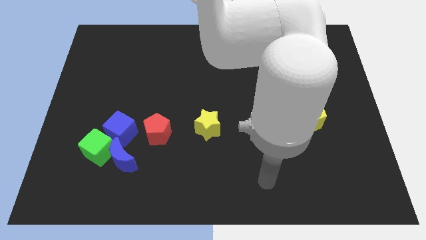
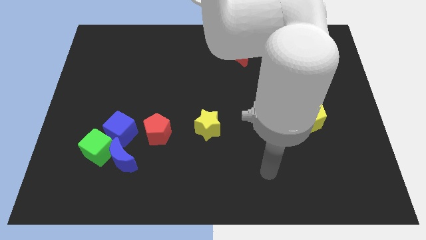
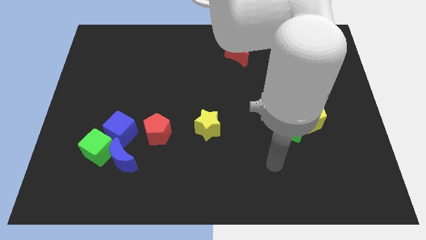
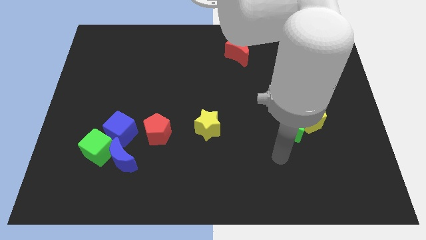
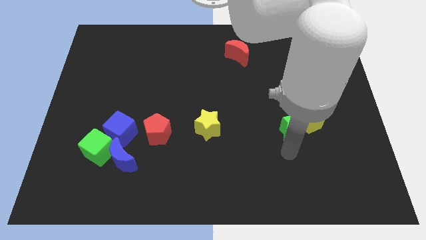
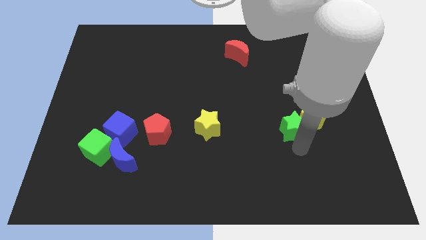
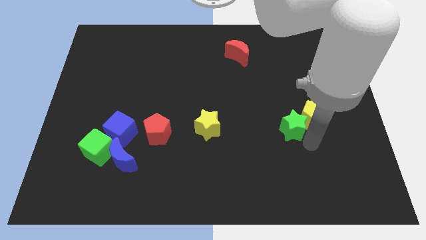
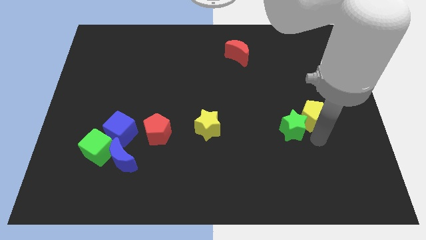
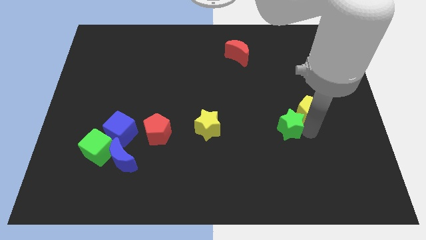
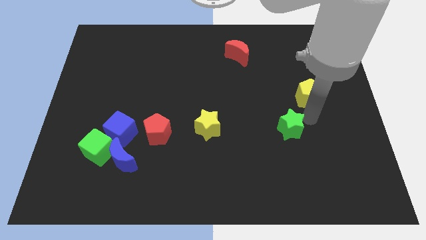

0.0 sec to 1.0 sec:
move the green star away from the yellow pentagon

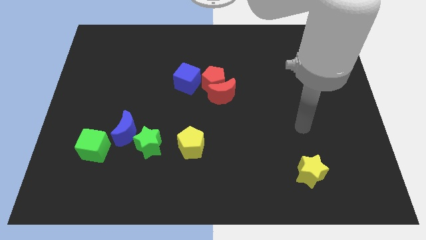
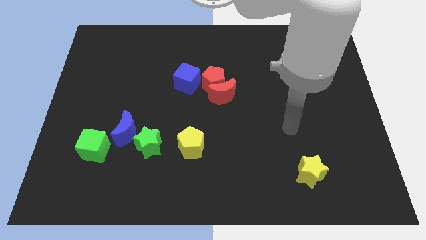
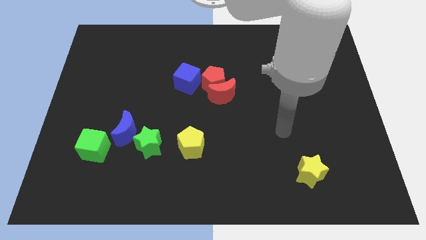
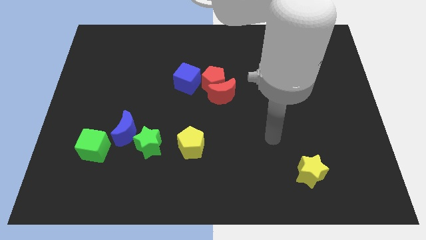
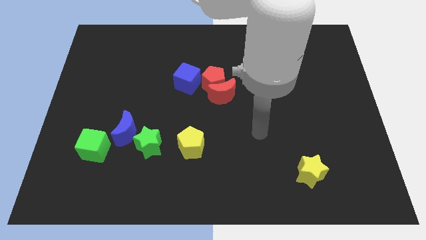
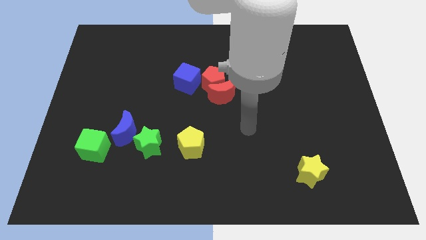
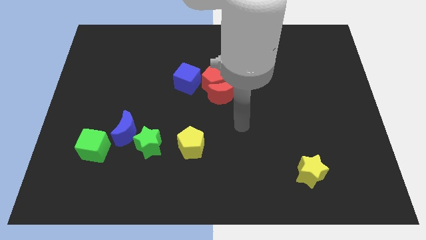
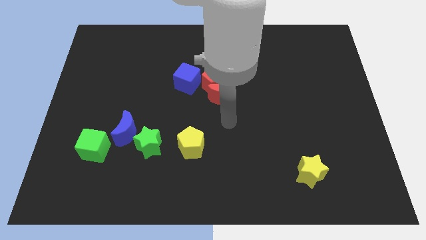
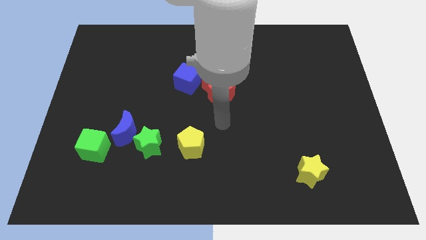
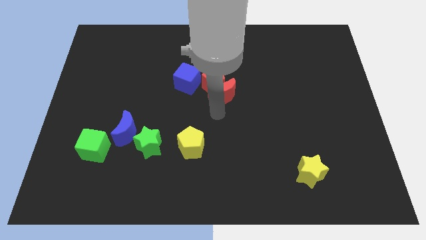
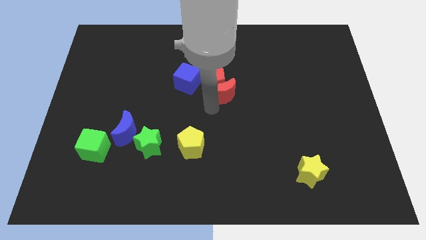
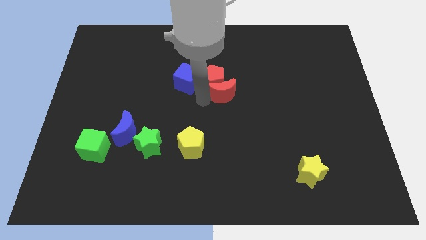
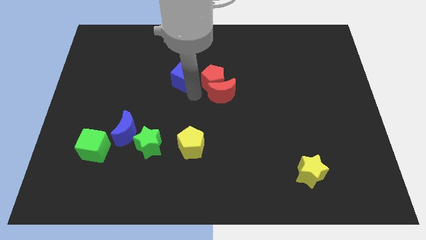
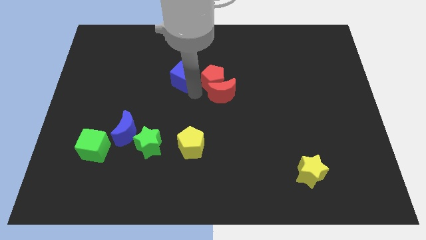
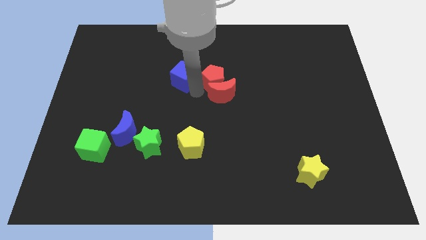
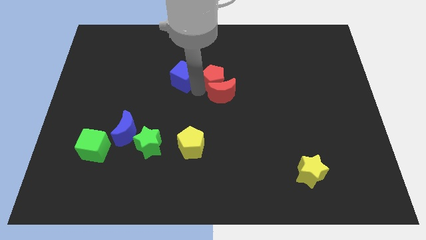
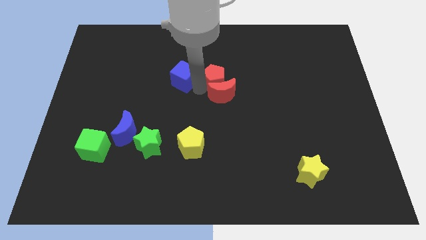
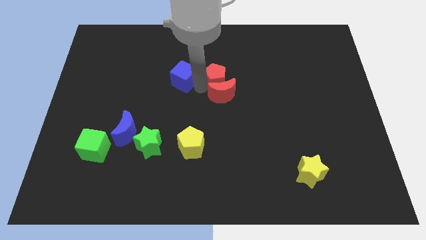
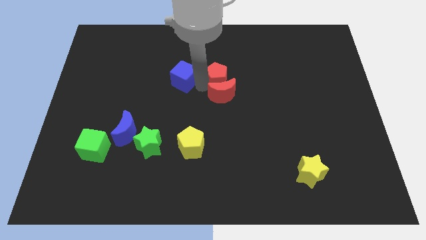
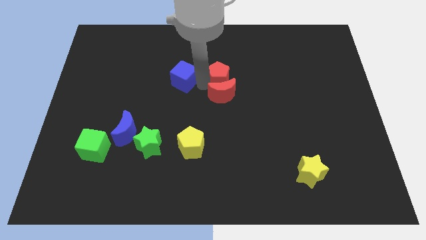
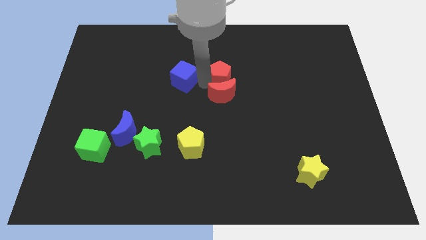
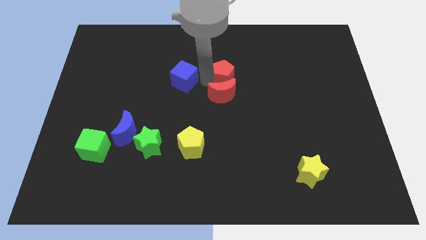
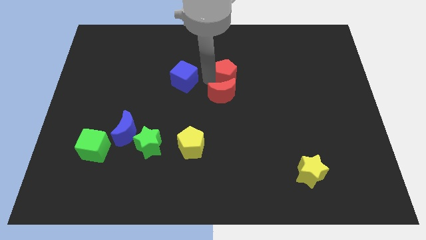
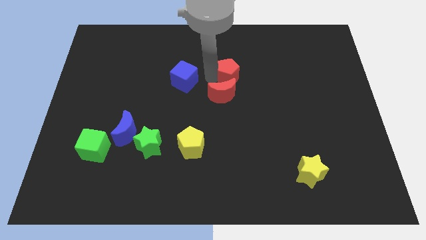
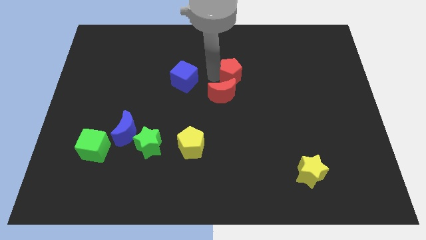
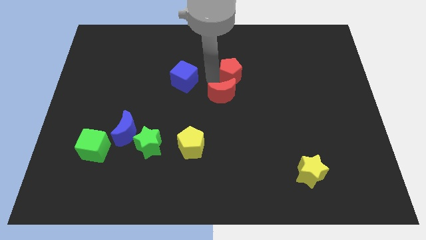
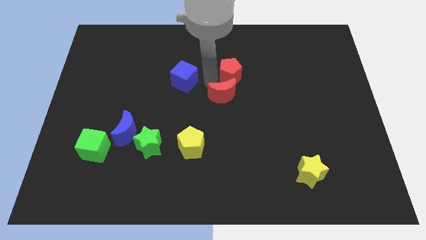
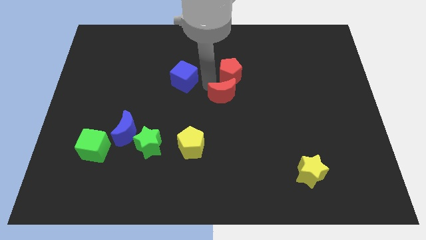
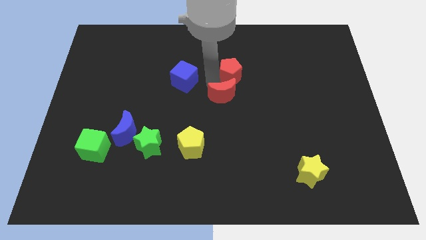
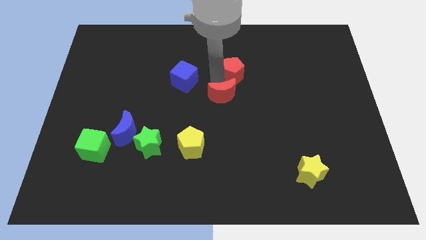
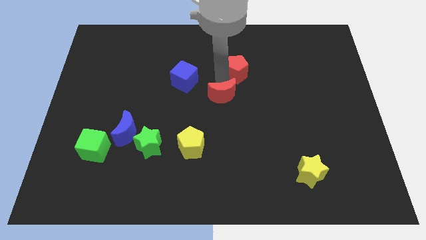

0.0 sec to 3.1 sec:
separate the red pentagon from the red moon and blue cube

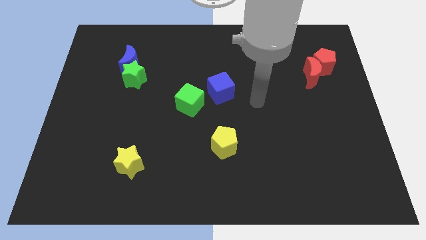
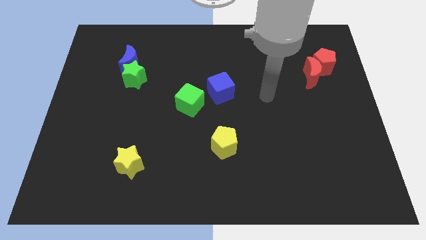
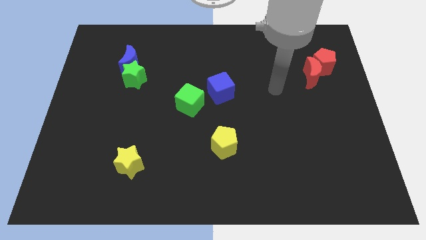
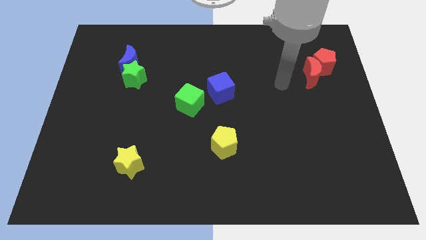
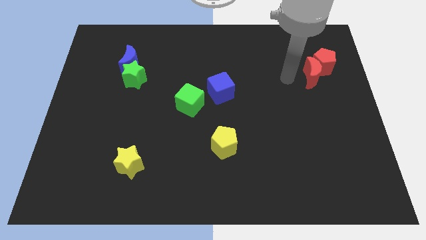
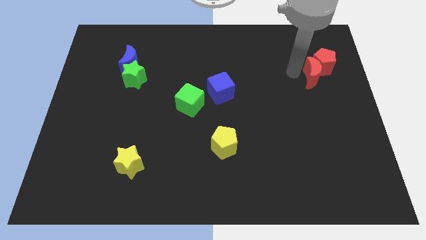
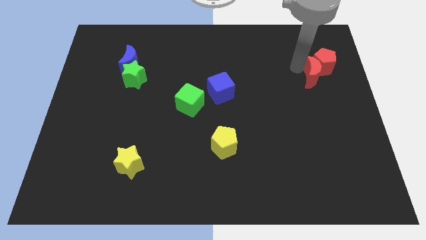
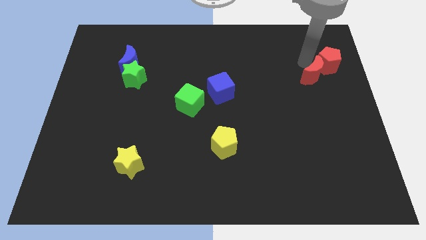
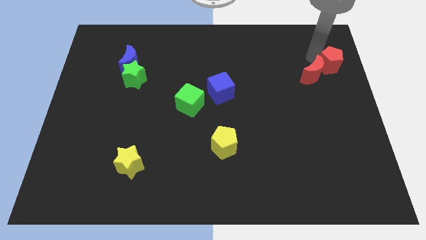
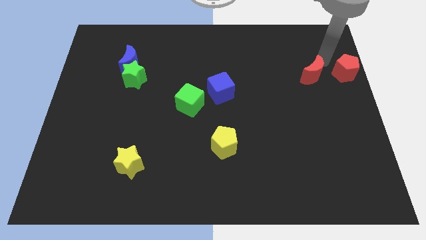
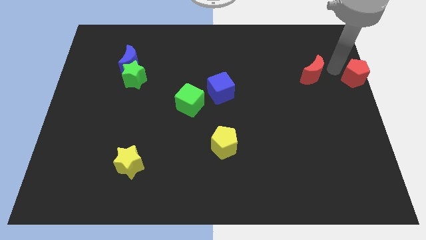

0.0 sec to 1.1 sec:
pull the red moon apart from the red pentagon

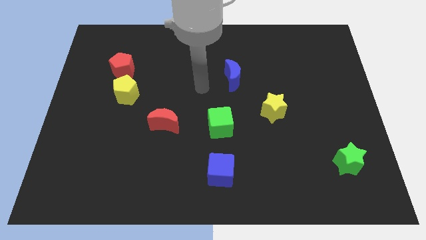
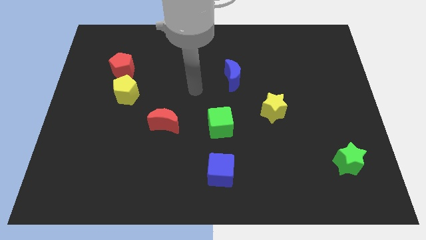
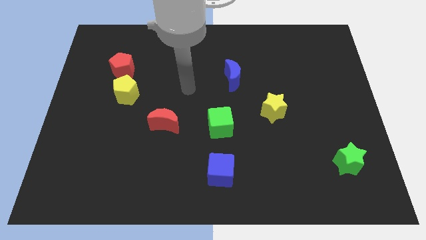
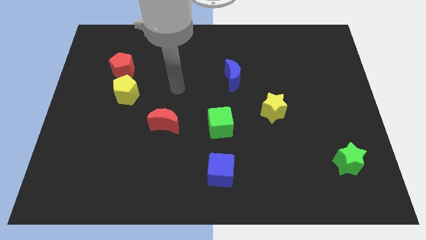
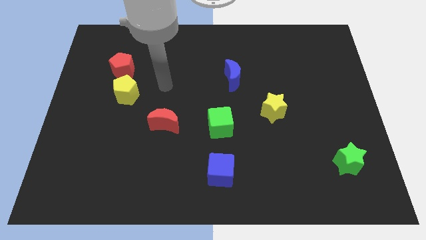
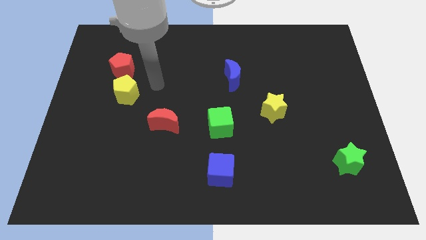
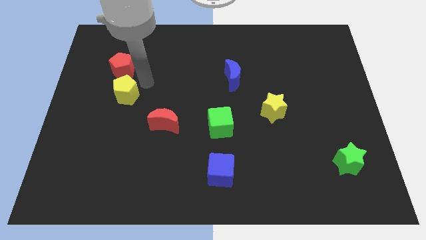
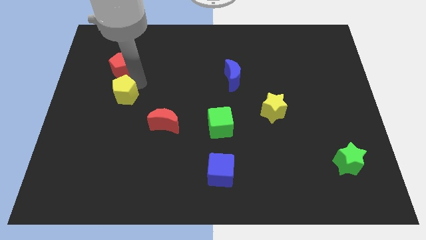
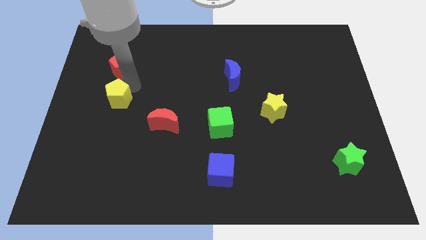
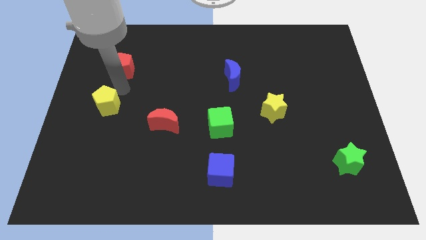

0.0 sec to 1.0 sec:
move the red pentagon away from the yellow pentagon

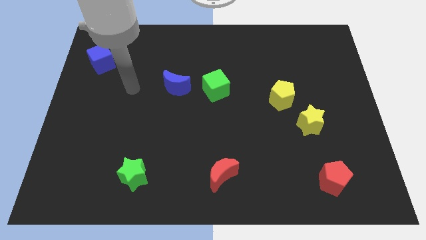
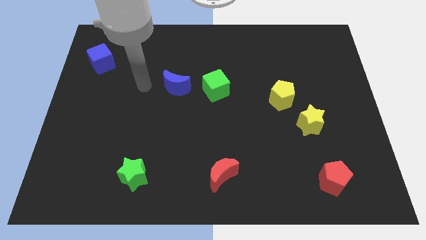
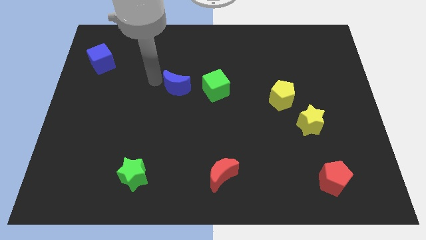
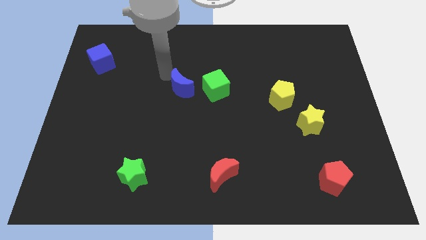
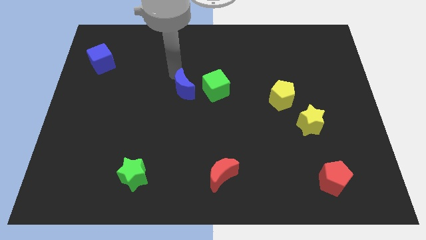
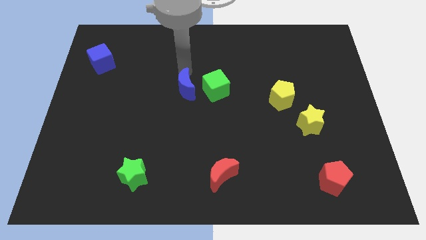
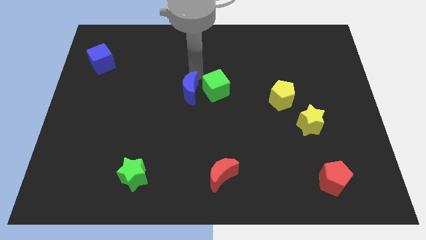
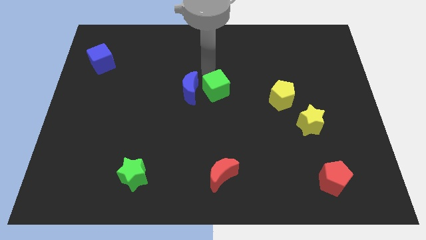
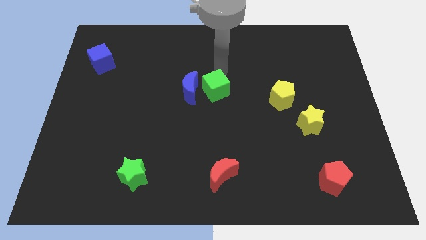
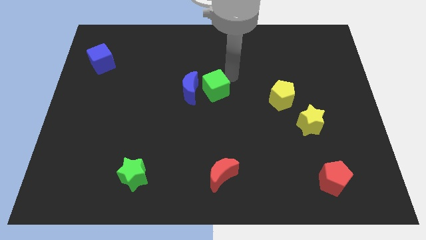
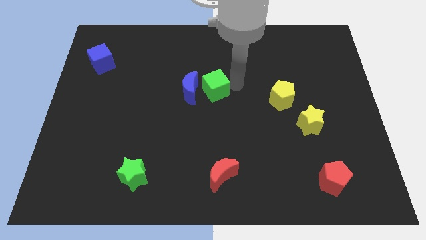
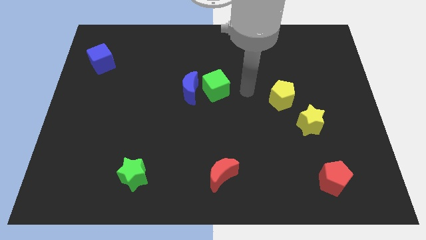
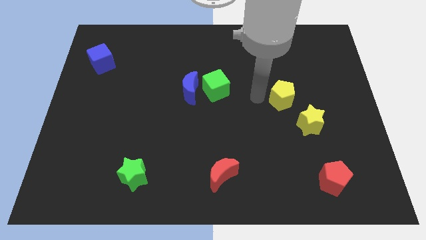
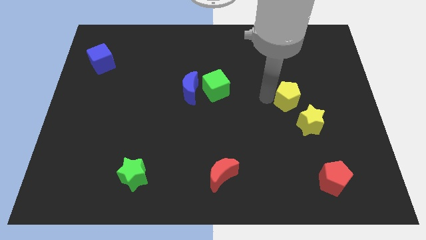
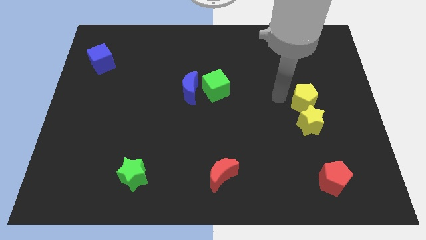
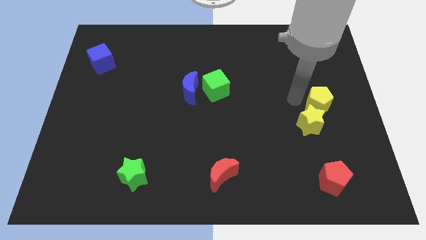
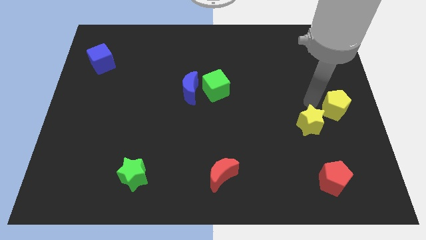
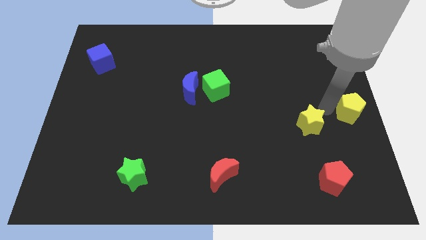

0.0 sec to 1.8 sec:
move the yellow star away from the yellow pentagon

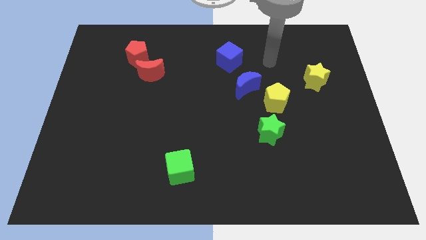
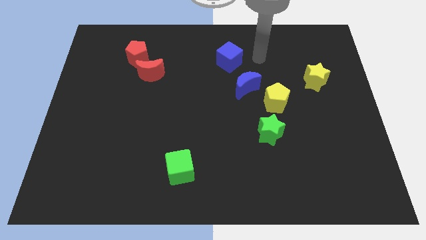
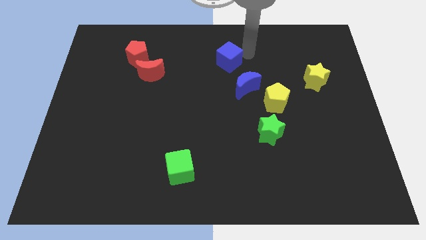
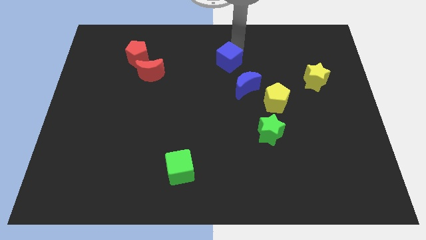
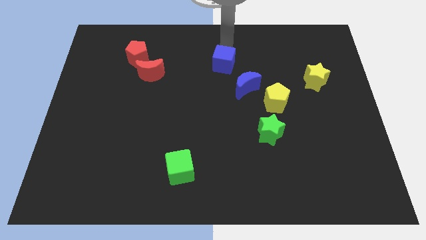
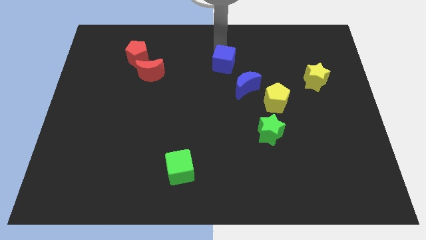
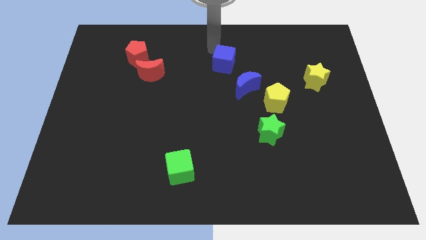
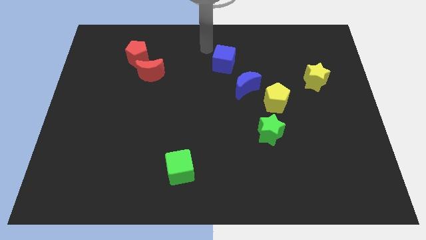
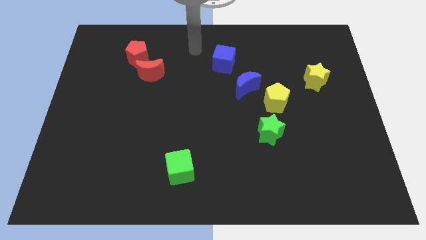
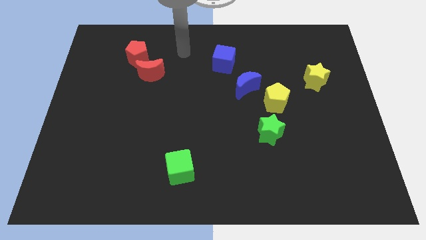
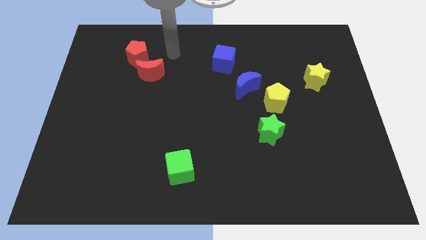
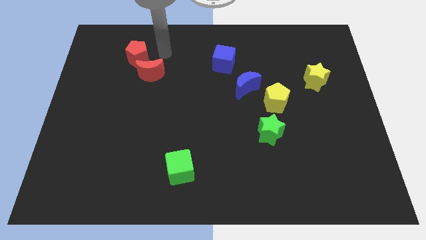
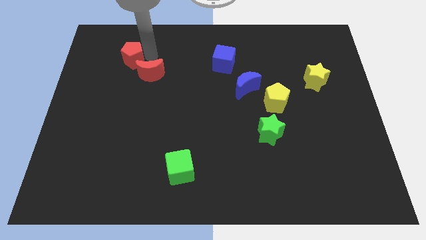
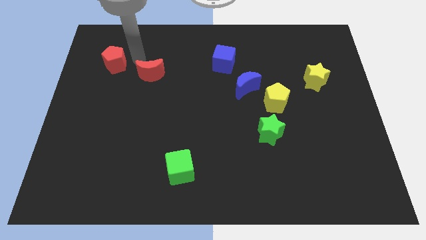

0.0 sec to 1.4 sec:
move the red moon away from the red pentagon

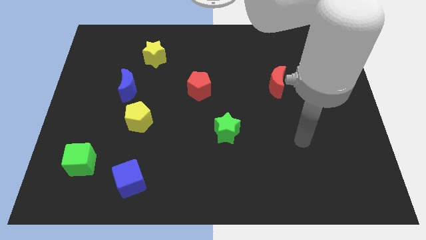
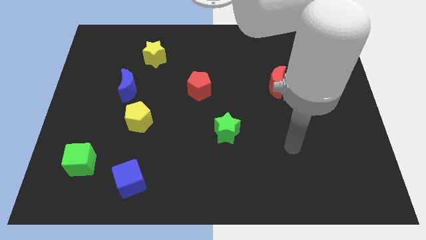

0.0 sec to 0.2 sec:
pull the blue moon apart from the yellow pentagon
